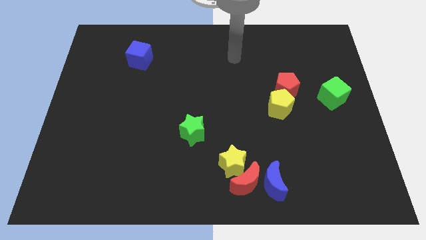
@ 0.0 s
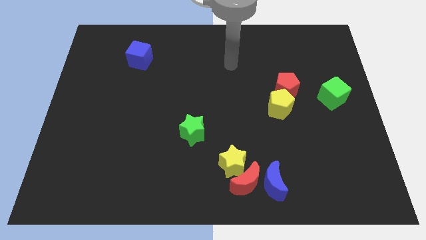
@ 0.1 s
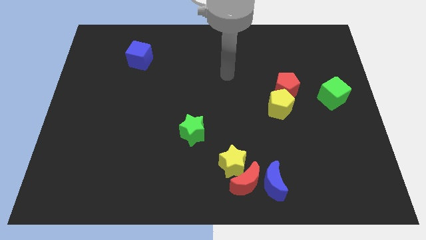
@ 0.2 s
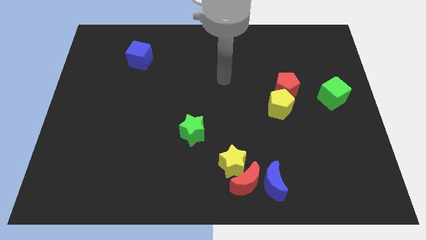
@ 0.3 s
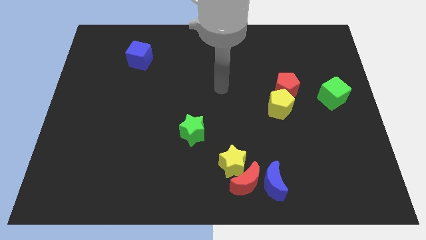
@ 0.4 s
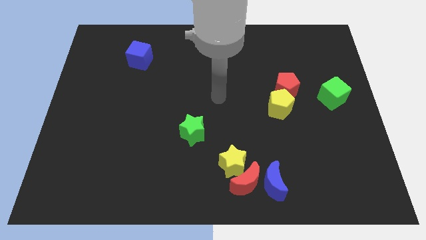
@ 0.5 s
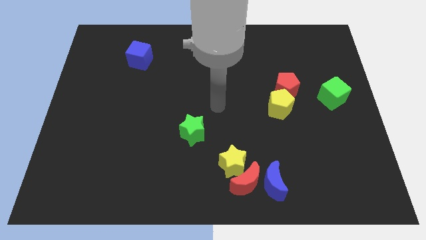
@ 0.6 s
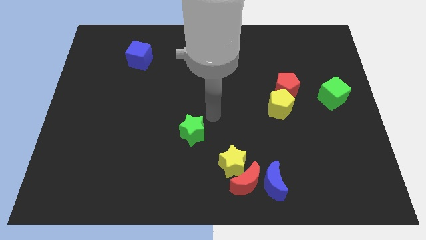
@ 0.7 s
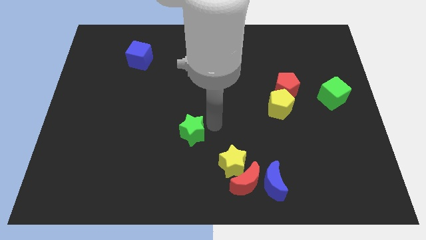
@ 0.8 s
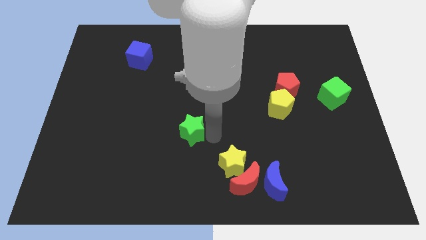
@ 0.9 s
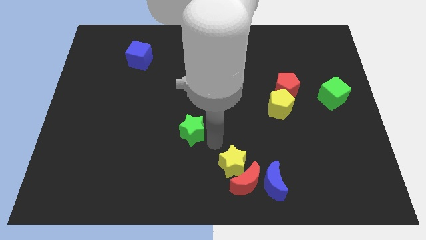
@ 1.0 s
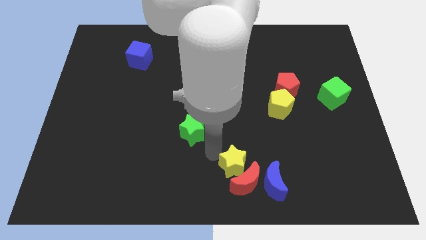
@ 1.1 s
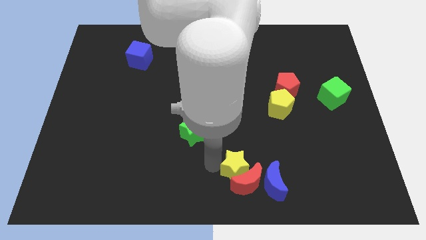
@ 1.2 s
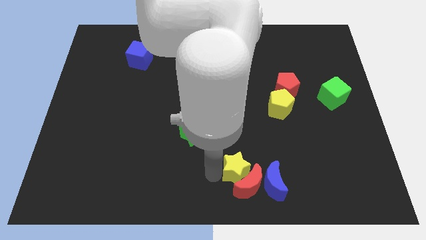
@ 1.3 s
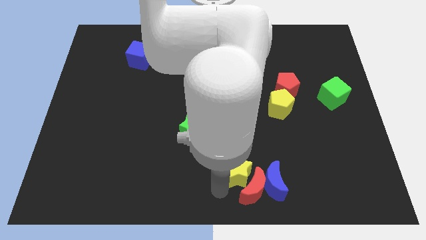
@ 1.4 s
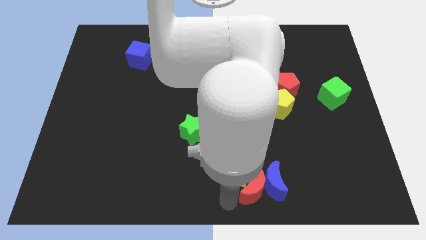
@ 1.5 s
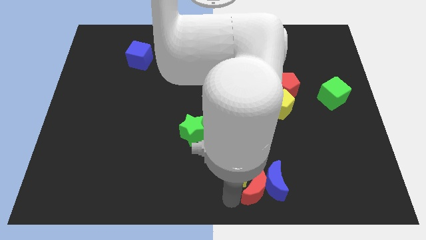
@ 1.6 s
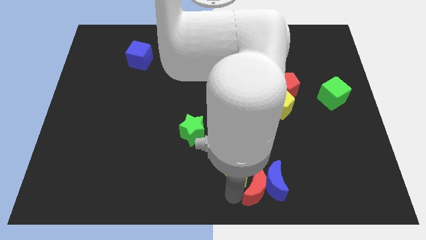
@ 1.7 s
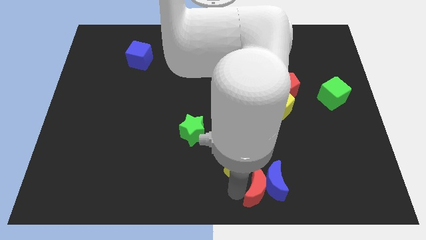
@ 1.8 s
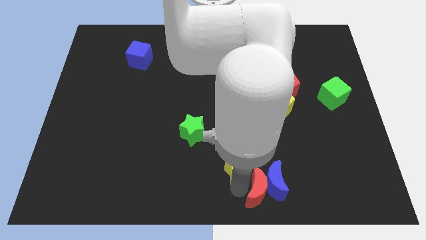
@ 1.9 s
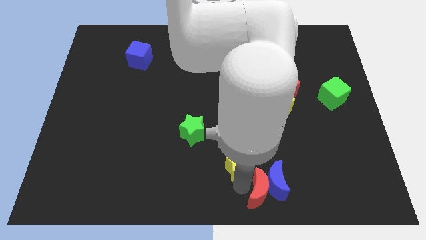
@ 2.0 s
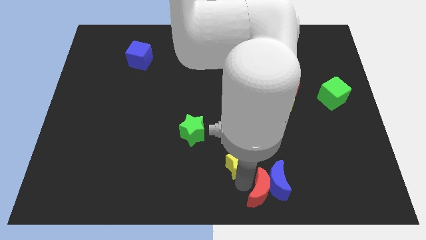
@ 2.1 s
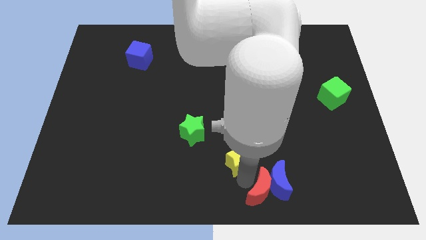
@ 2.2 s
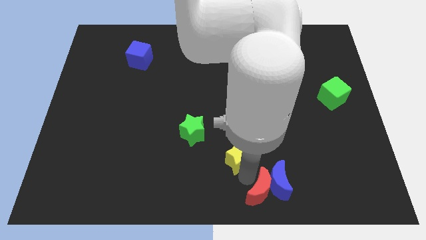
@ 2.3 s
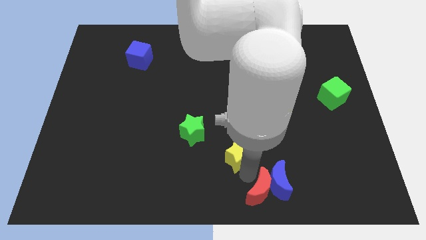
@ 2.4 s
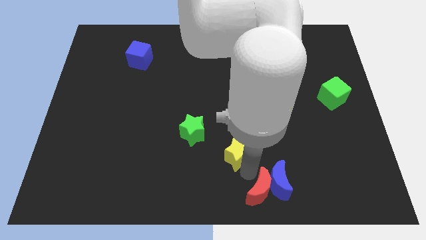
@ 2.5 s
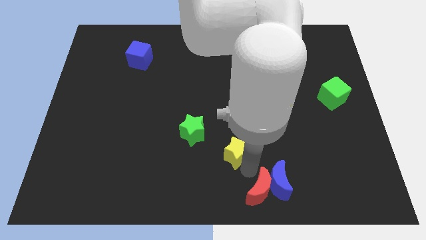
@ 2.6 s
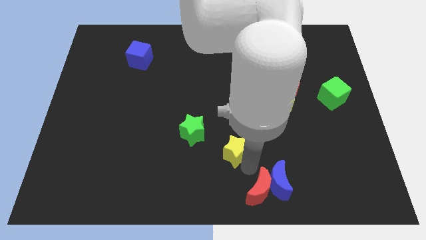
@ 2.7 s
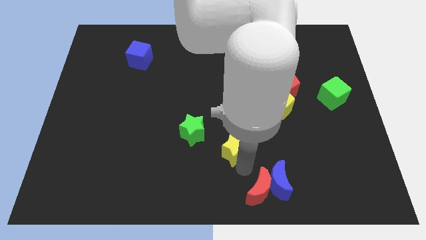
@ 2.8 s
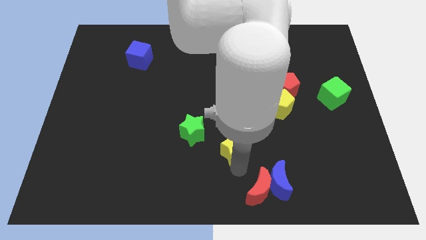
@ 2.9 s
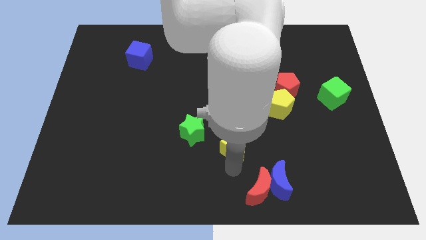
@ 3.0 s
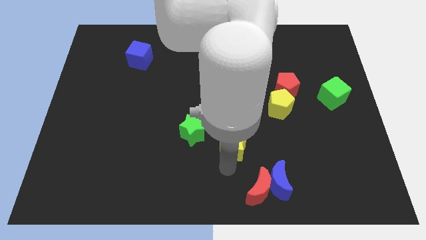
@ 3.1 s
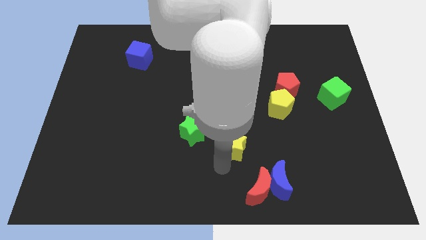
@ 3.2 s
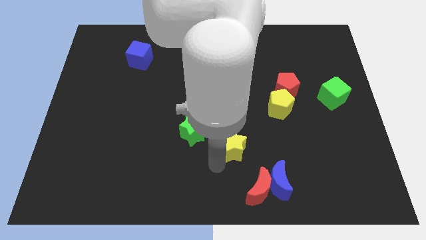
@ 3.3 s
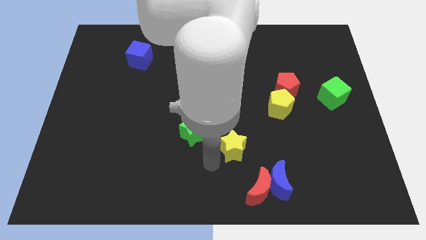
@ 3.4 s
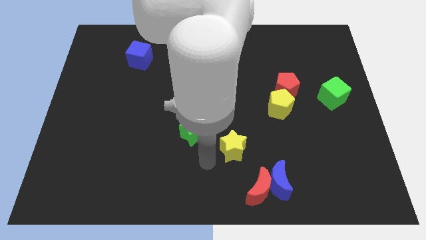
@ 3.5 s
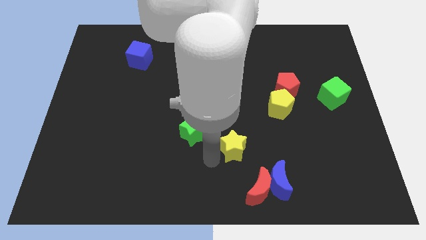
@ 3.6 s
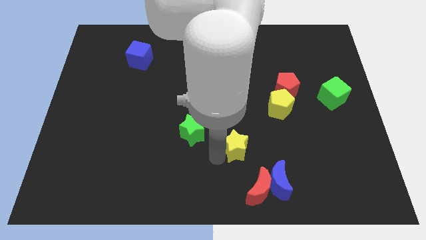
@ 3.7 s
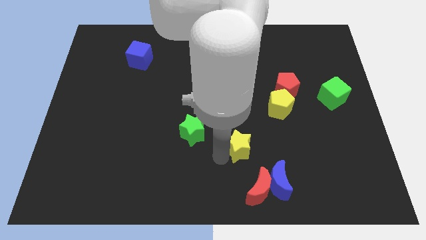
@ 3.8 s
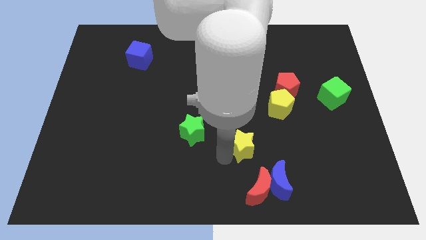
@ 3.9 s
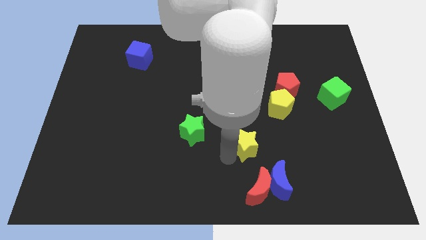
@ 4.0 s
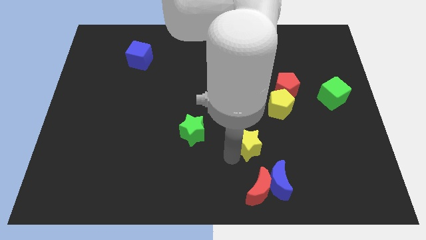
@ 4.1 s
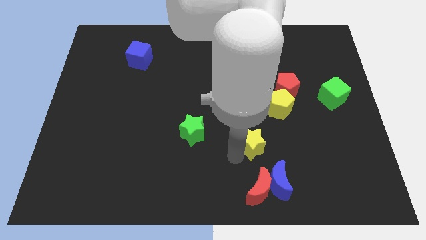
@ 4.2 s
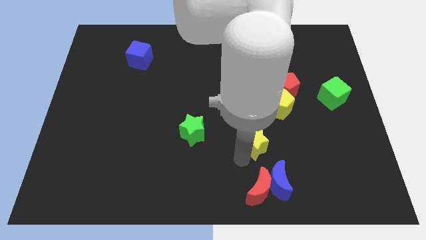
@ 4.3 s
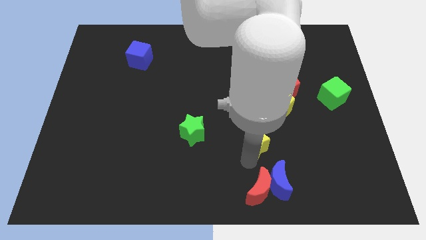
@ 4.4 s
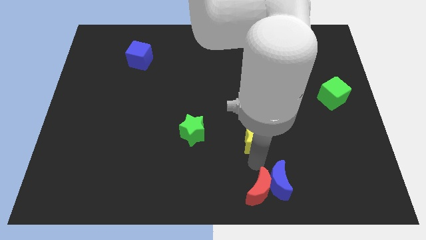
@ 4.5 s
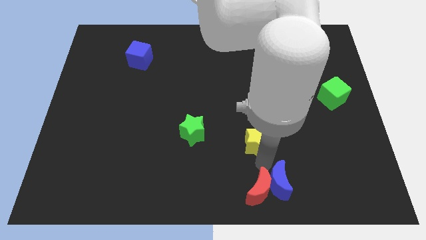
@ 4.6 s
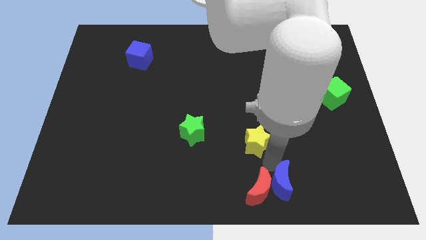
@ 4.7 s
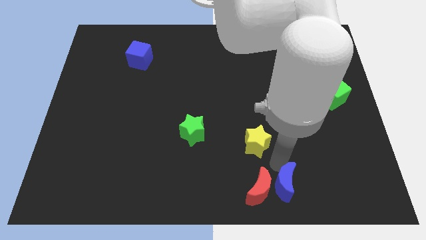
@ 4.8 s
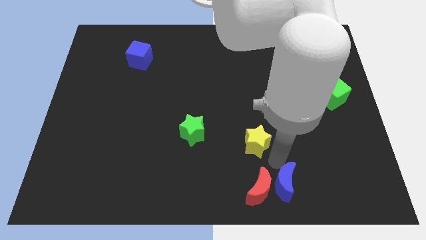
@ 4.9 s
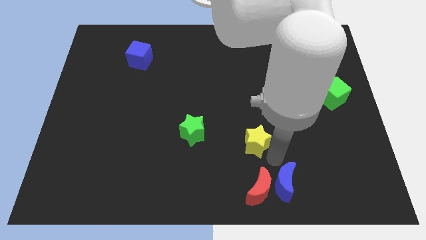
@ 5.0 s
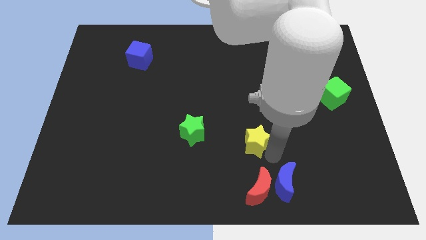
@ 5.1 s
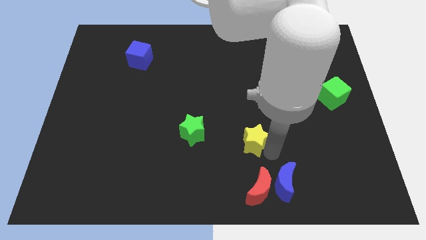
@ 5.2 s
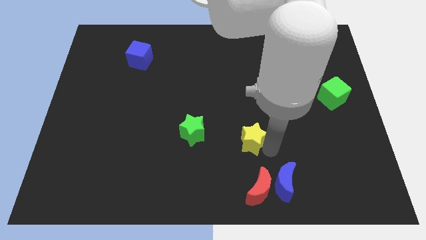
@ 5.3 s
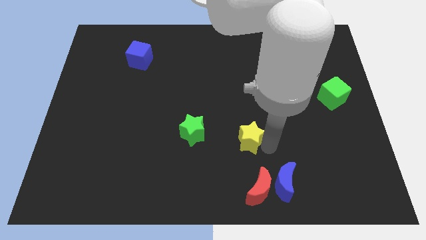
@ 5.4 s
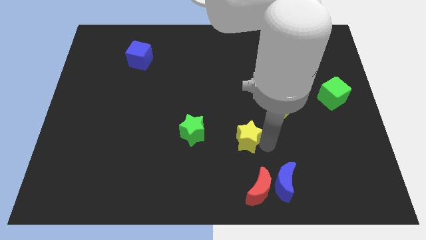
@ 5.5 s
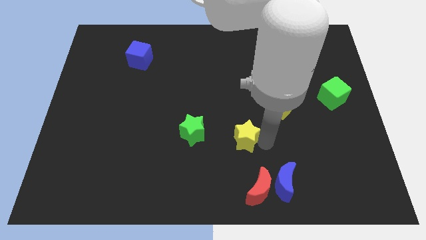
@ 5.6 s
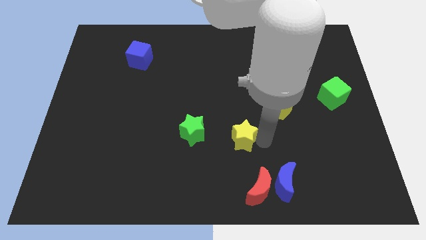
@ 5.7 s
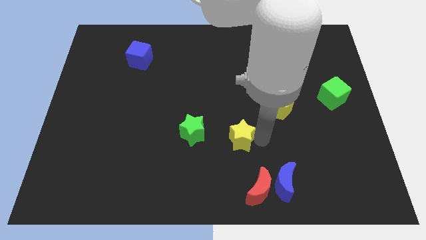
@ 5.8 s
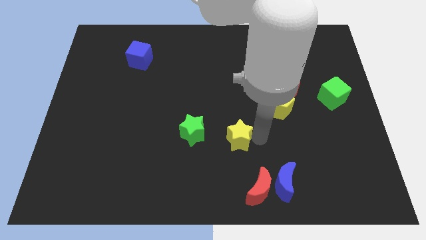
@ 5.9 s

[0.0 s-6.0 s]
push the yellow star somewhat upwards

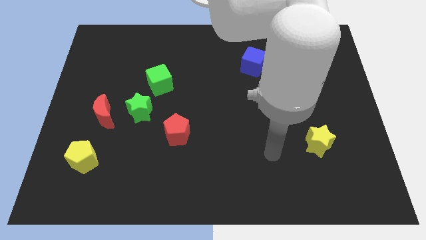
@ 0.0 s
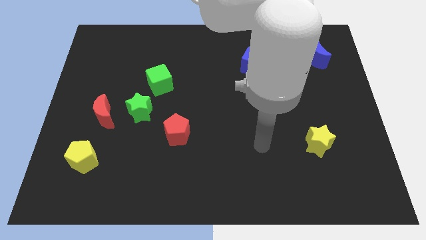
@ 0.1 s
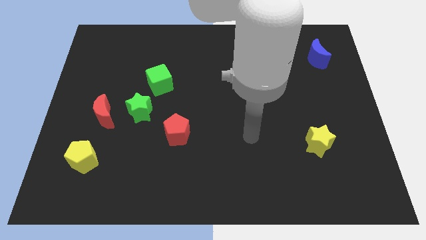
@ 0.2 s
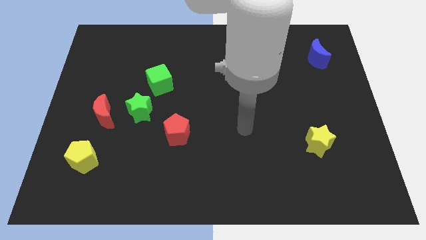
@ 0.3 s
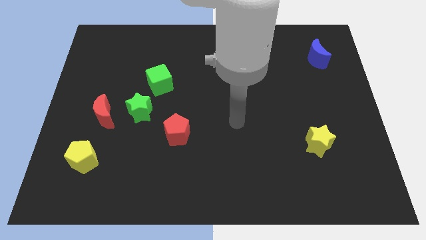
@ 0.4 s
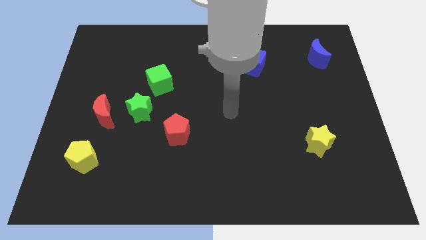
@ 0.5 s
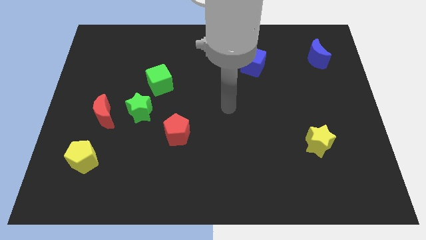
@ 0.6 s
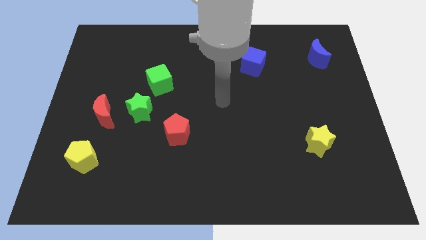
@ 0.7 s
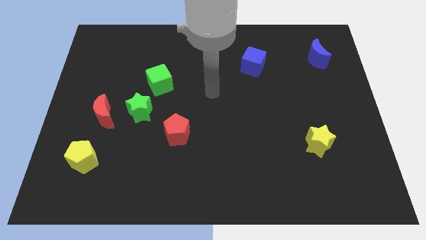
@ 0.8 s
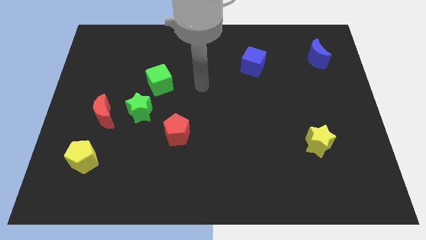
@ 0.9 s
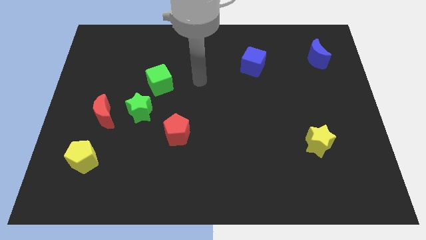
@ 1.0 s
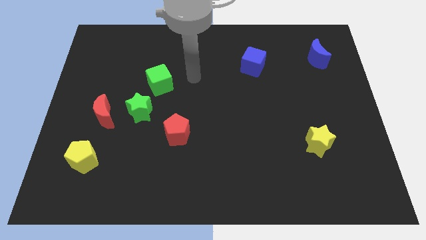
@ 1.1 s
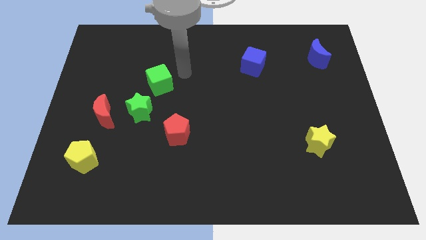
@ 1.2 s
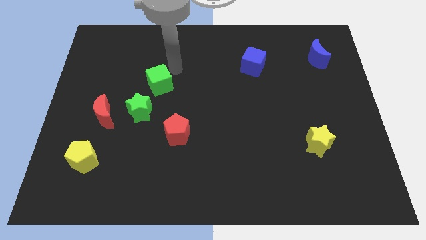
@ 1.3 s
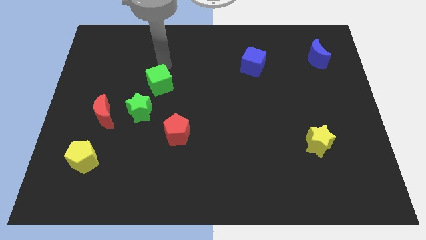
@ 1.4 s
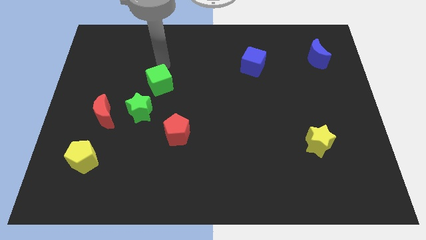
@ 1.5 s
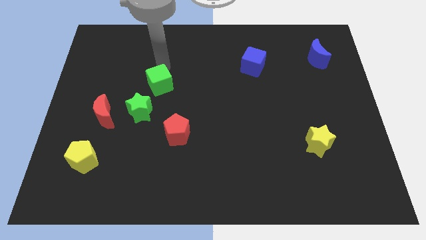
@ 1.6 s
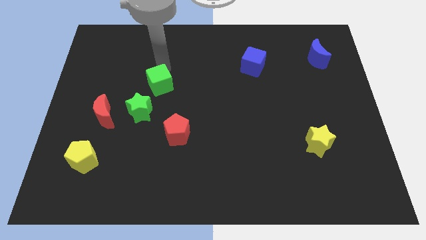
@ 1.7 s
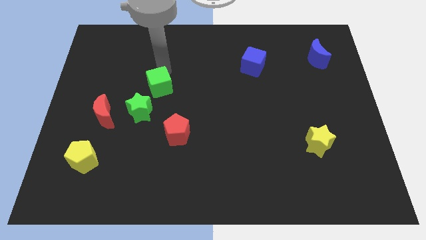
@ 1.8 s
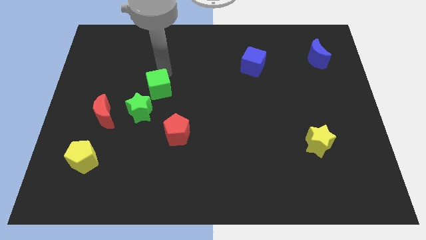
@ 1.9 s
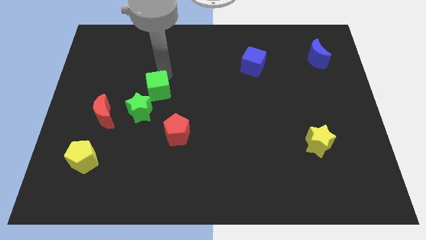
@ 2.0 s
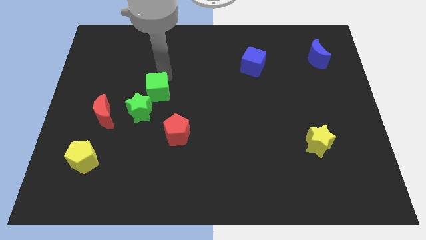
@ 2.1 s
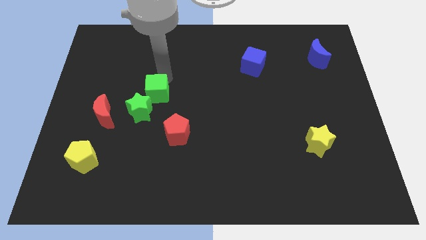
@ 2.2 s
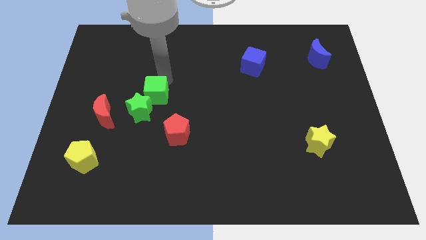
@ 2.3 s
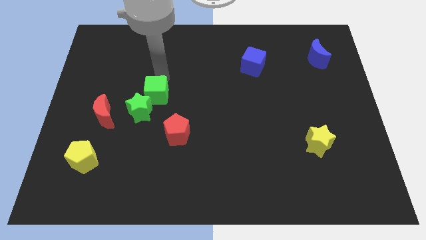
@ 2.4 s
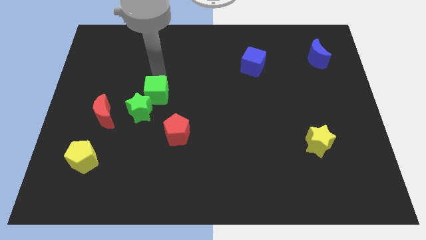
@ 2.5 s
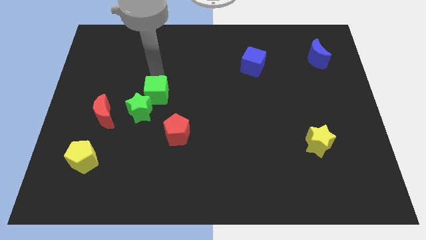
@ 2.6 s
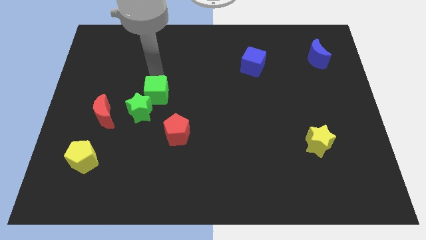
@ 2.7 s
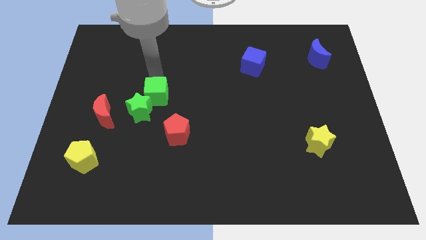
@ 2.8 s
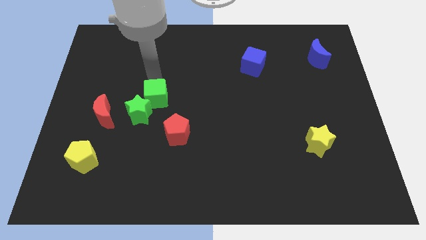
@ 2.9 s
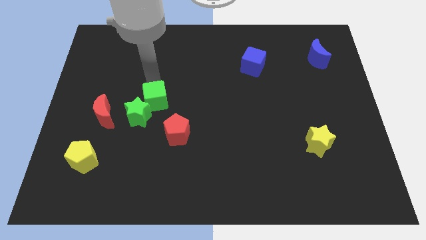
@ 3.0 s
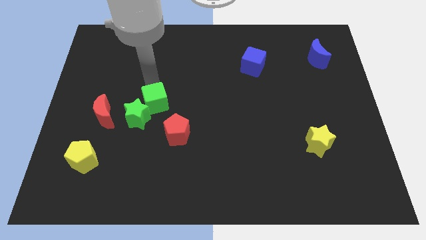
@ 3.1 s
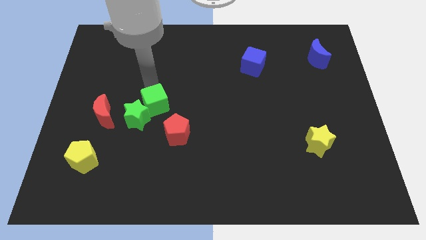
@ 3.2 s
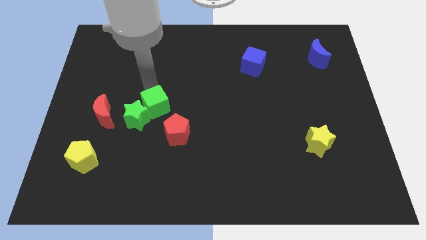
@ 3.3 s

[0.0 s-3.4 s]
slide the green cube a little bit downwards
